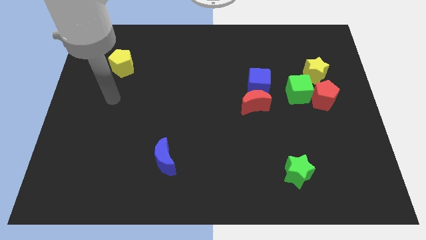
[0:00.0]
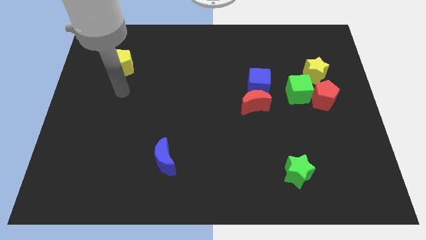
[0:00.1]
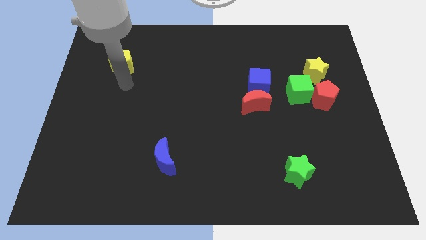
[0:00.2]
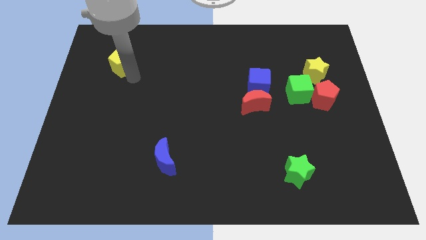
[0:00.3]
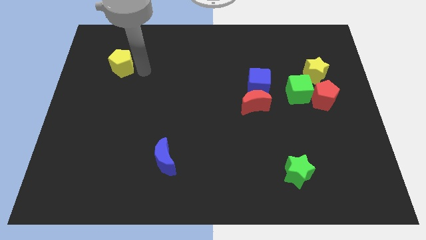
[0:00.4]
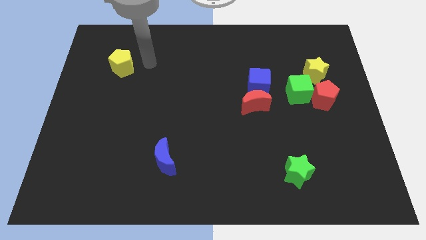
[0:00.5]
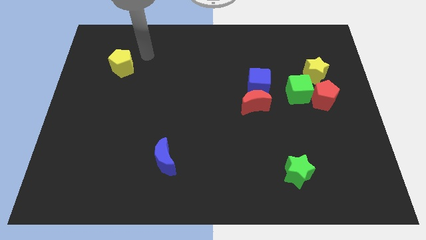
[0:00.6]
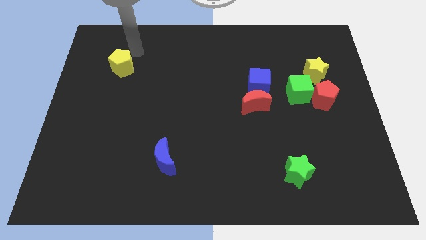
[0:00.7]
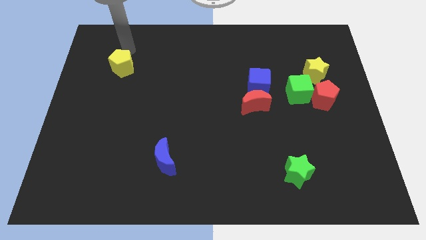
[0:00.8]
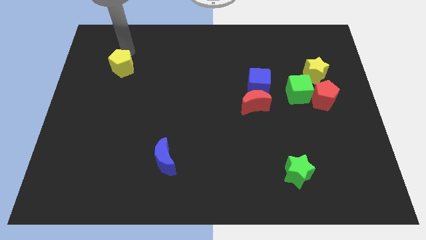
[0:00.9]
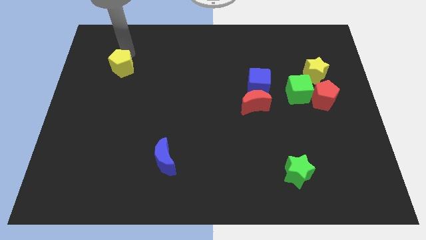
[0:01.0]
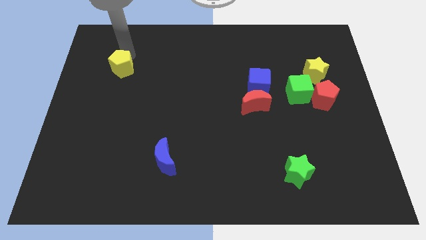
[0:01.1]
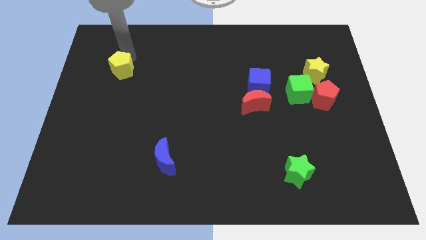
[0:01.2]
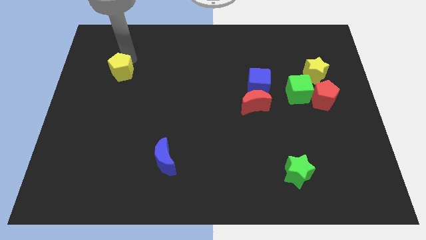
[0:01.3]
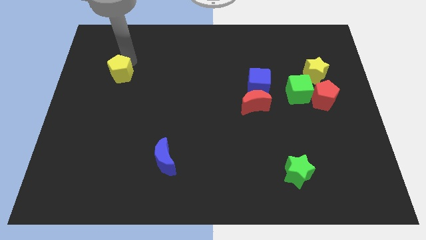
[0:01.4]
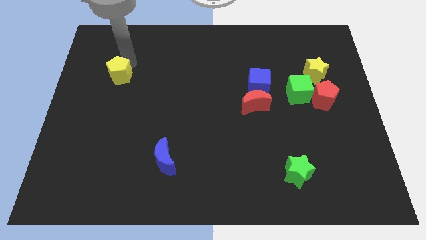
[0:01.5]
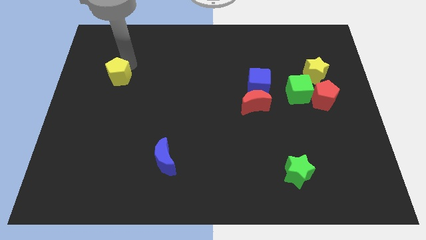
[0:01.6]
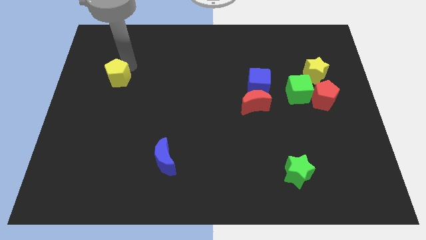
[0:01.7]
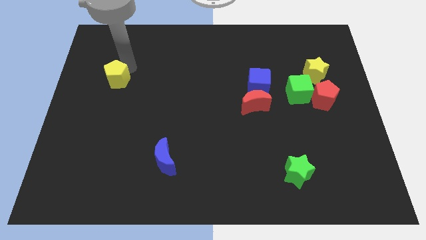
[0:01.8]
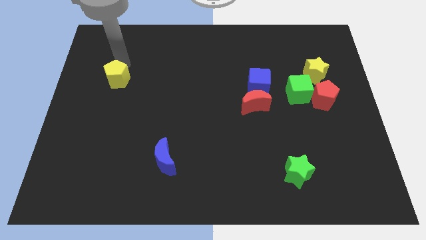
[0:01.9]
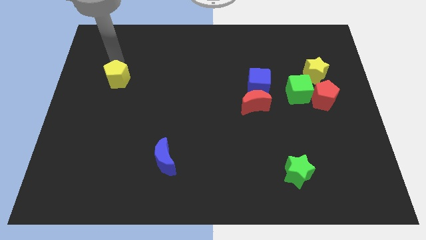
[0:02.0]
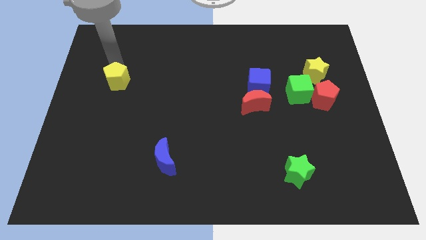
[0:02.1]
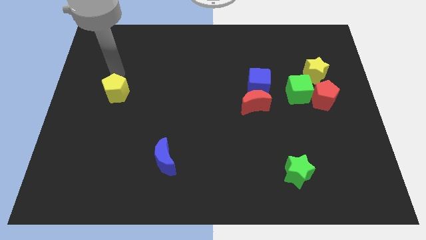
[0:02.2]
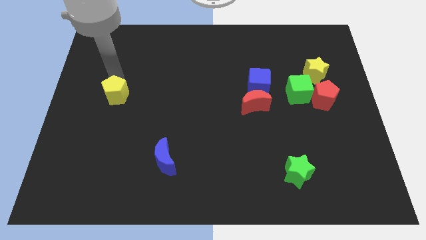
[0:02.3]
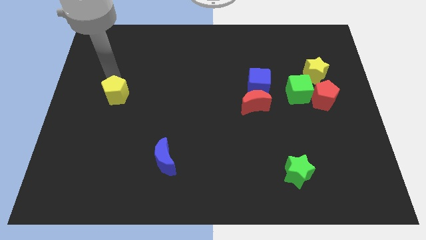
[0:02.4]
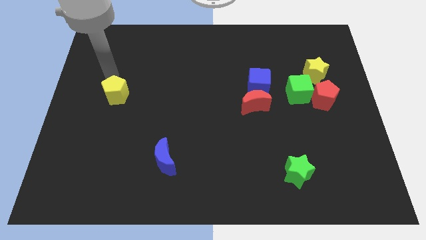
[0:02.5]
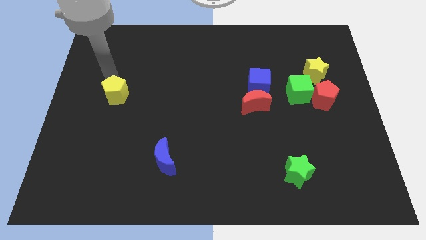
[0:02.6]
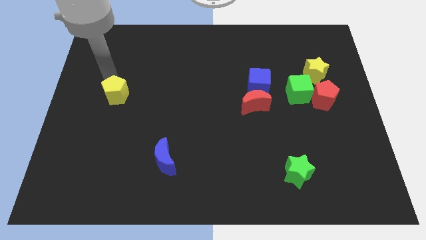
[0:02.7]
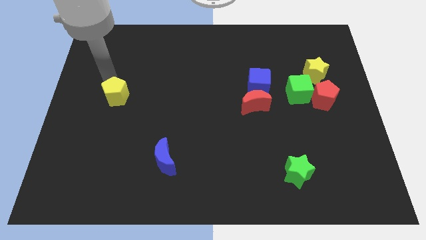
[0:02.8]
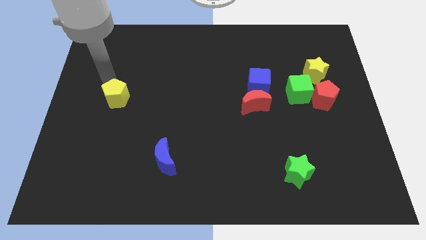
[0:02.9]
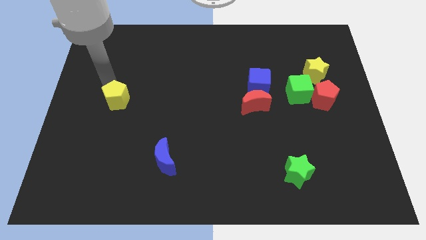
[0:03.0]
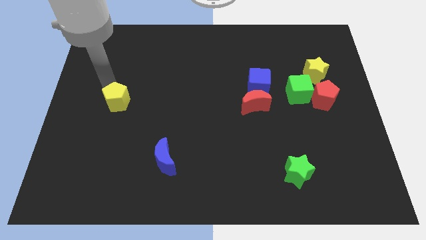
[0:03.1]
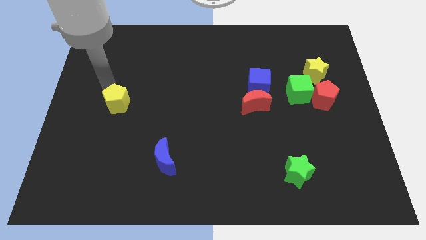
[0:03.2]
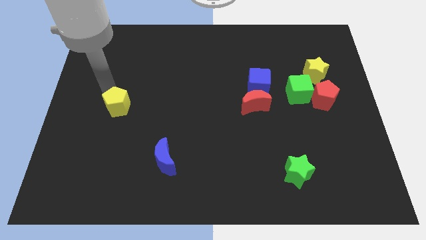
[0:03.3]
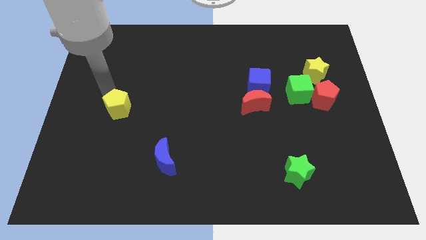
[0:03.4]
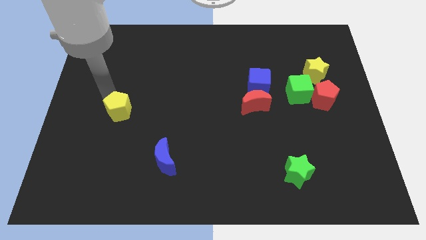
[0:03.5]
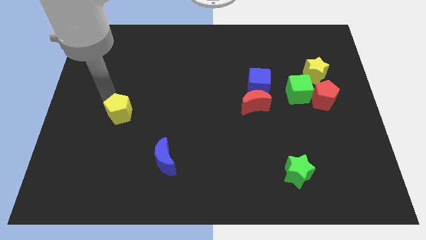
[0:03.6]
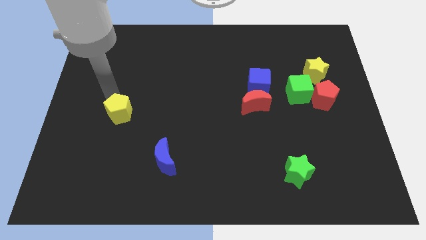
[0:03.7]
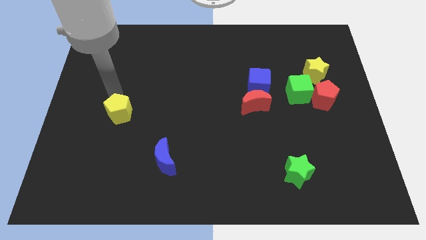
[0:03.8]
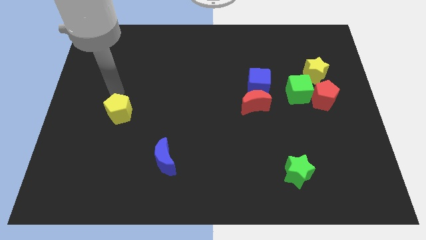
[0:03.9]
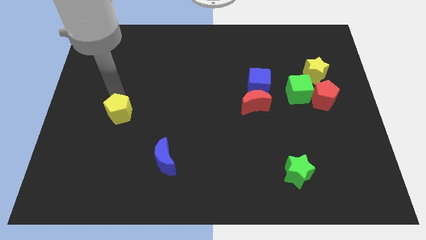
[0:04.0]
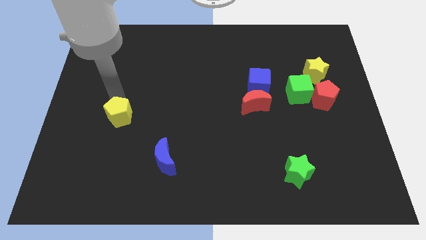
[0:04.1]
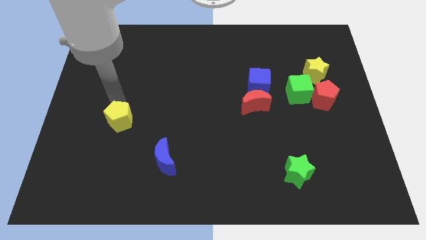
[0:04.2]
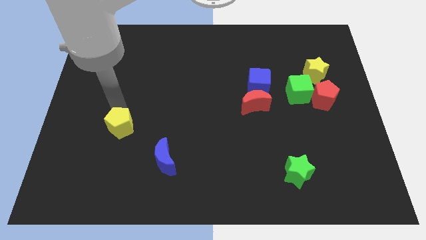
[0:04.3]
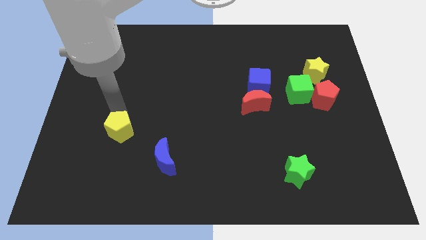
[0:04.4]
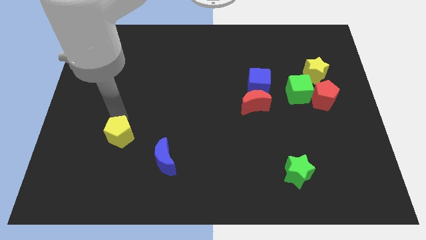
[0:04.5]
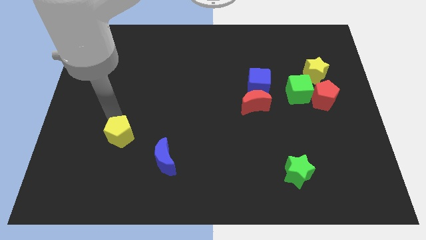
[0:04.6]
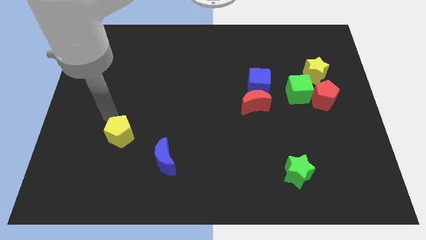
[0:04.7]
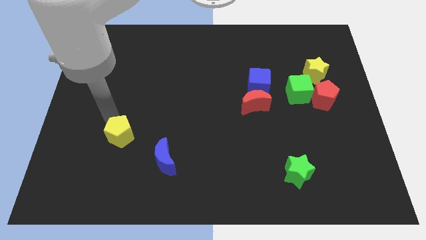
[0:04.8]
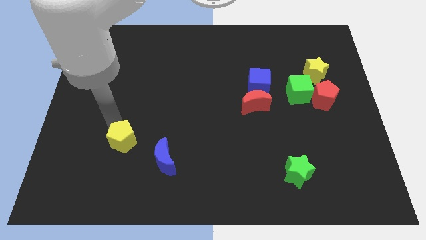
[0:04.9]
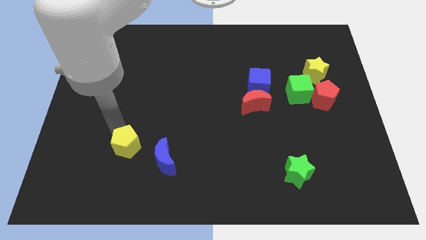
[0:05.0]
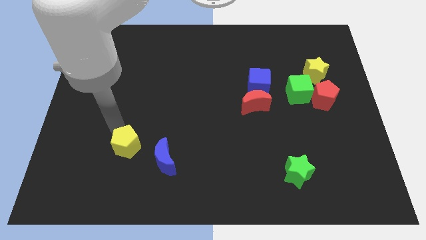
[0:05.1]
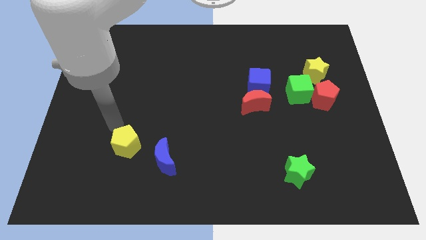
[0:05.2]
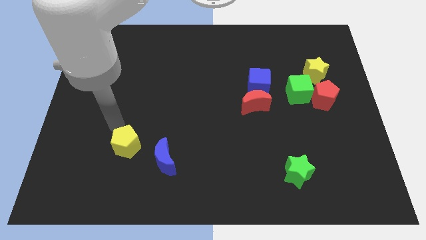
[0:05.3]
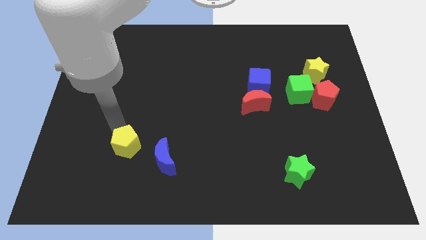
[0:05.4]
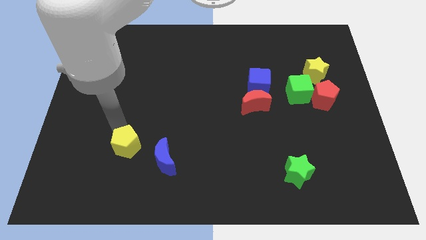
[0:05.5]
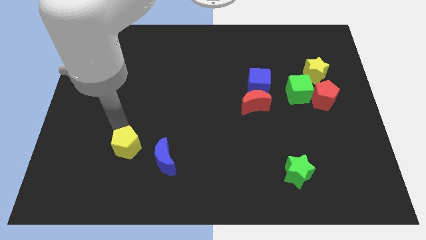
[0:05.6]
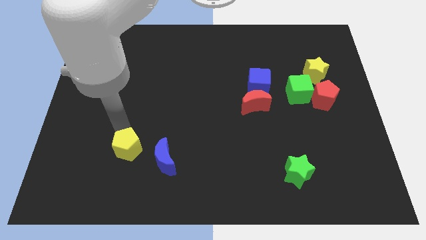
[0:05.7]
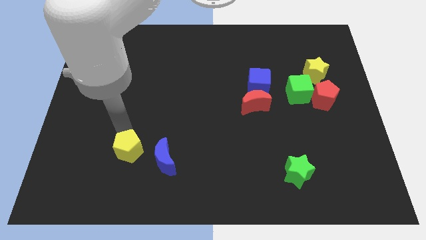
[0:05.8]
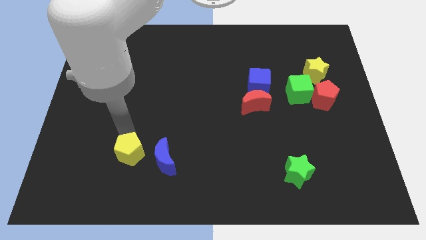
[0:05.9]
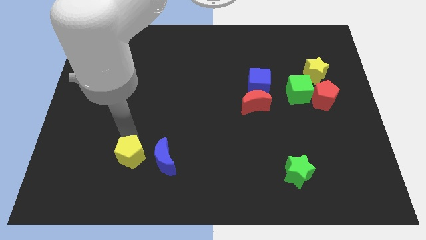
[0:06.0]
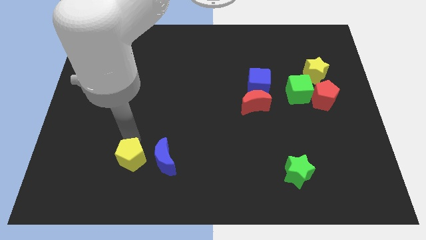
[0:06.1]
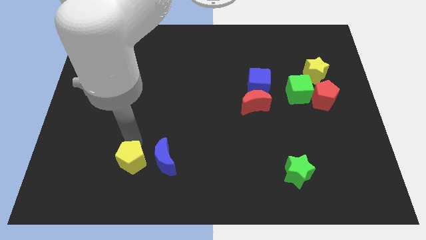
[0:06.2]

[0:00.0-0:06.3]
push the yellow pentagon to the bottom left side of the blue moon

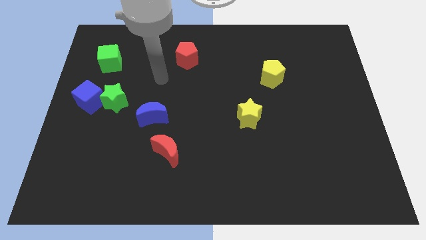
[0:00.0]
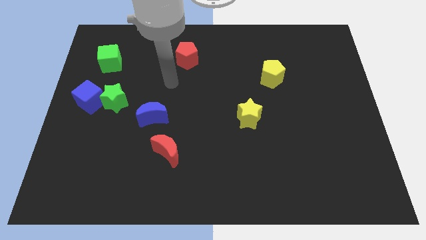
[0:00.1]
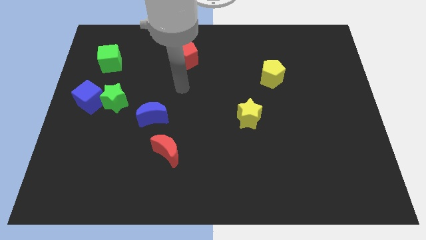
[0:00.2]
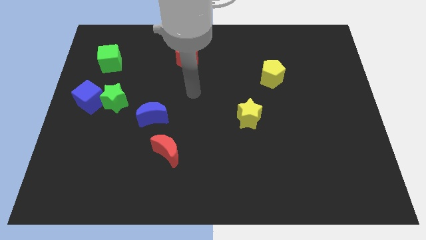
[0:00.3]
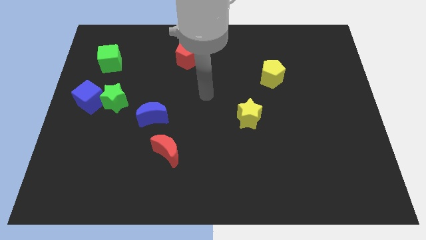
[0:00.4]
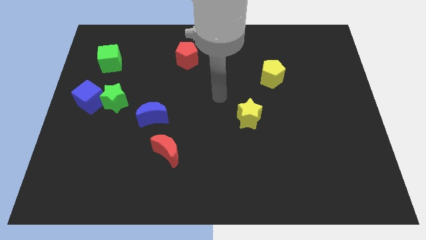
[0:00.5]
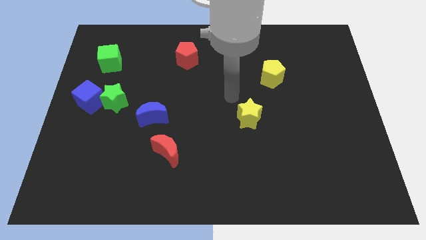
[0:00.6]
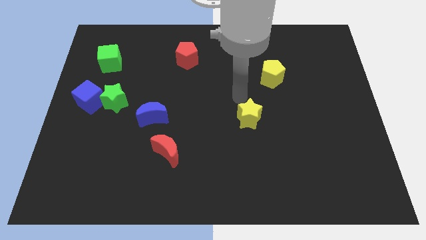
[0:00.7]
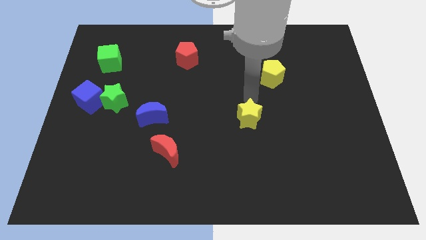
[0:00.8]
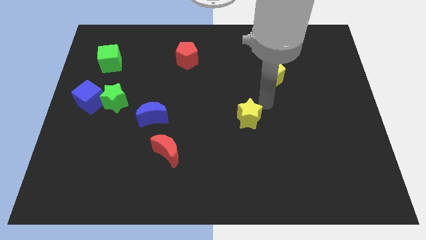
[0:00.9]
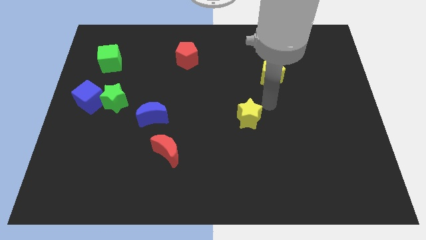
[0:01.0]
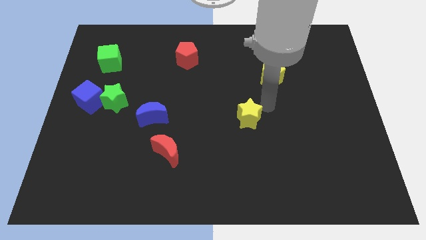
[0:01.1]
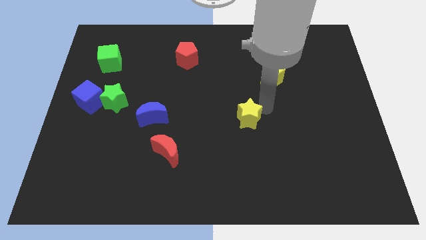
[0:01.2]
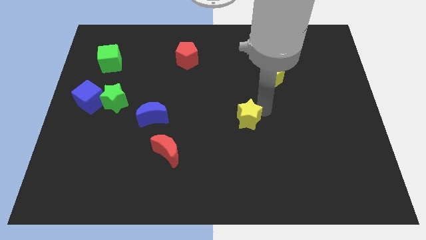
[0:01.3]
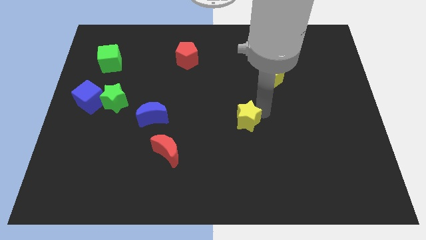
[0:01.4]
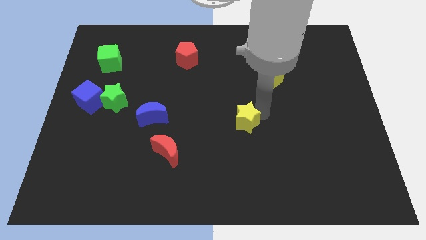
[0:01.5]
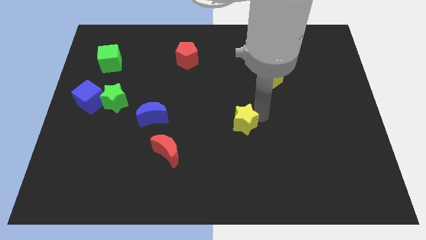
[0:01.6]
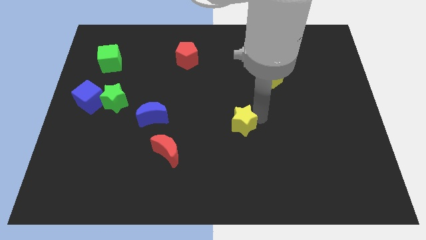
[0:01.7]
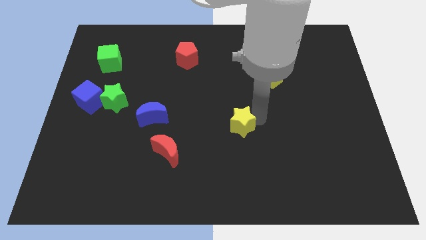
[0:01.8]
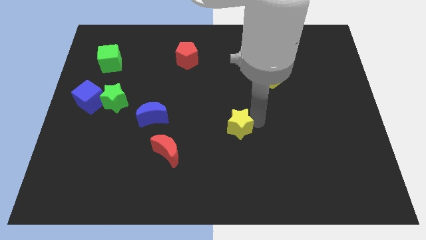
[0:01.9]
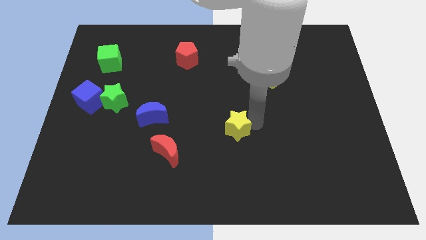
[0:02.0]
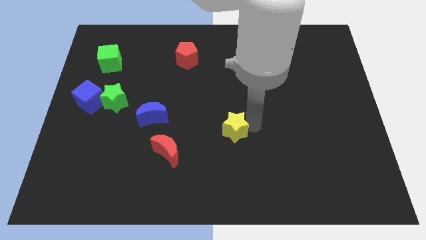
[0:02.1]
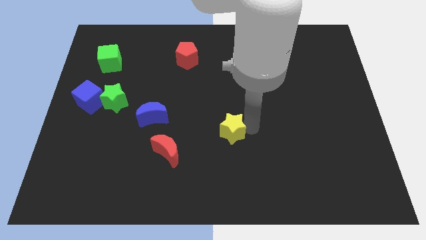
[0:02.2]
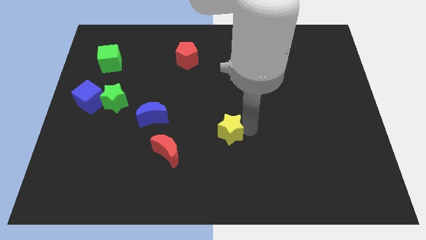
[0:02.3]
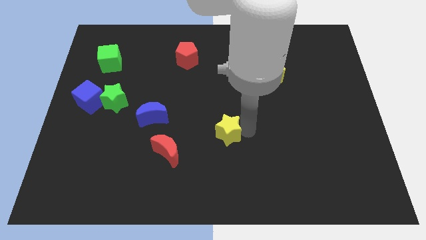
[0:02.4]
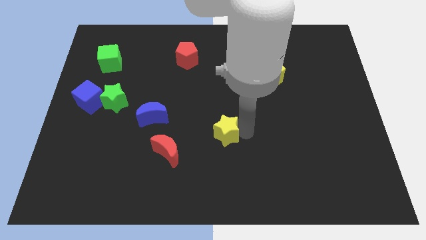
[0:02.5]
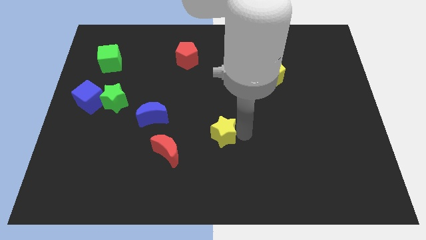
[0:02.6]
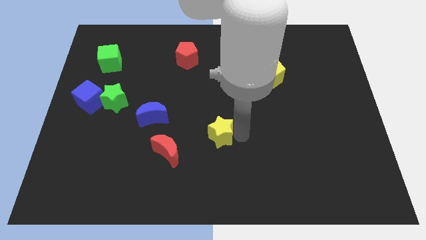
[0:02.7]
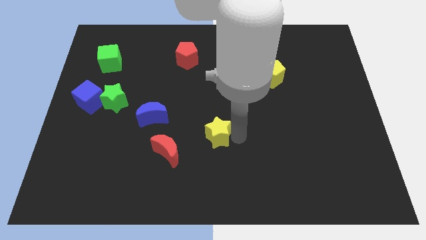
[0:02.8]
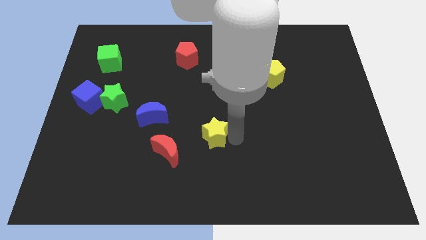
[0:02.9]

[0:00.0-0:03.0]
push the yellow star to the top right side of the red moon
